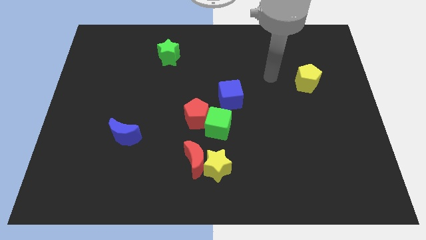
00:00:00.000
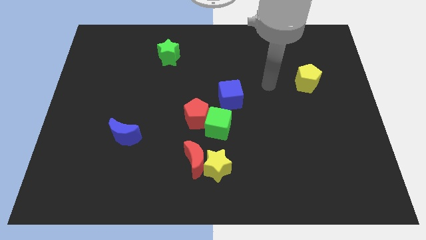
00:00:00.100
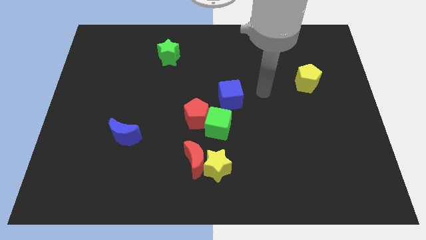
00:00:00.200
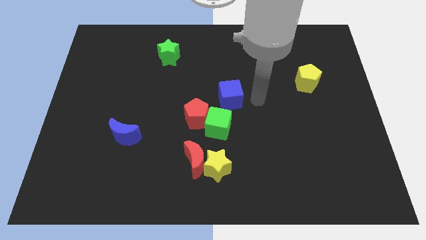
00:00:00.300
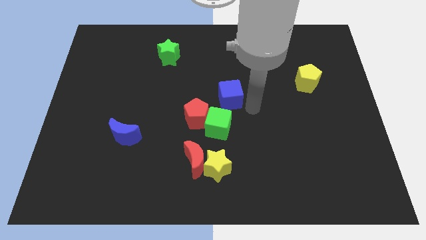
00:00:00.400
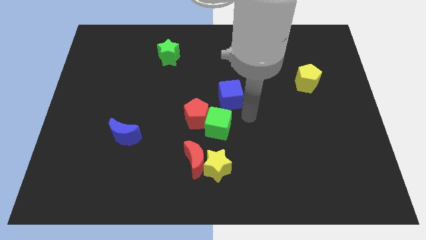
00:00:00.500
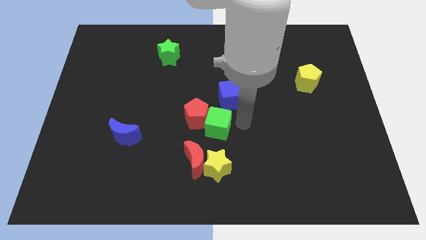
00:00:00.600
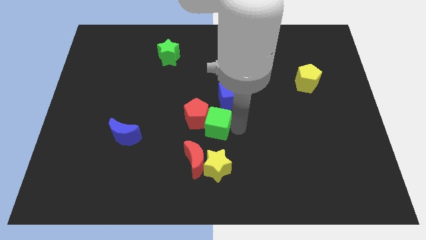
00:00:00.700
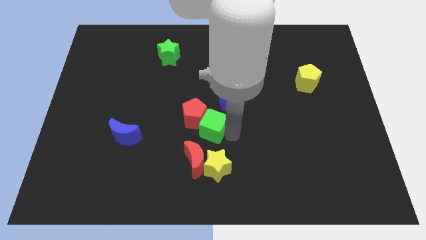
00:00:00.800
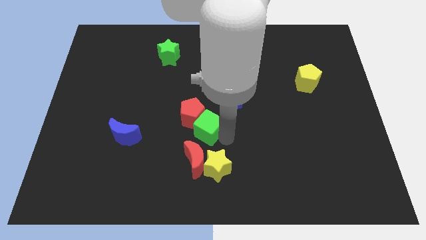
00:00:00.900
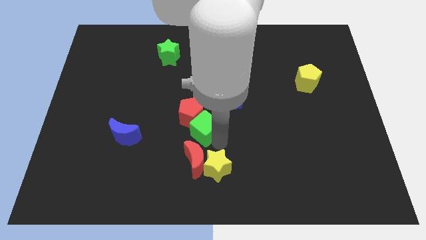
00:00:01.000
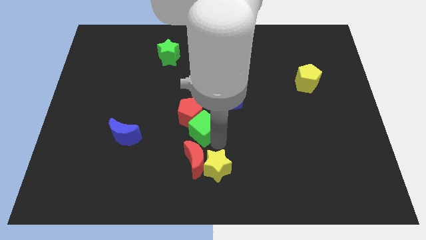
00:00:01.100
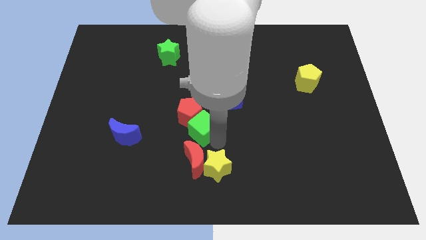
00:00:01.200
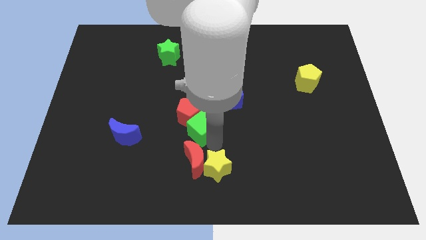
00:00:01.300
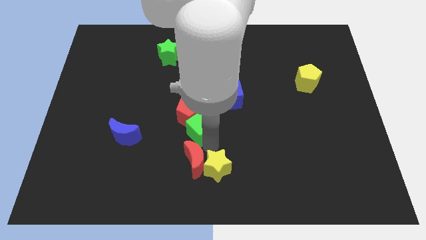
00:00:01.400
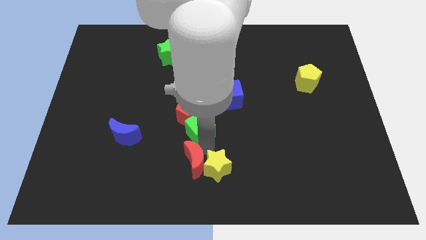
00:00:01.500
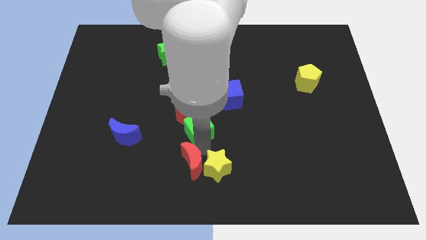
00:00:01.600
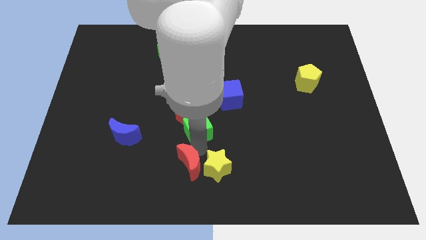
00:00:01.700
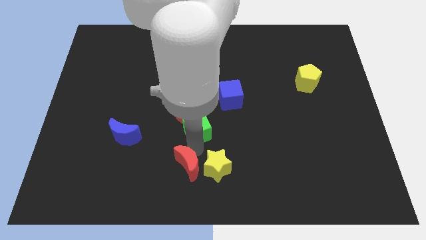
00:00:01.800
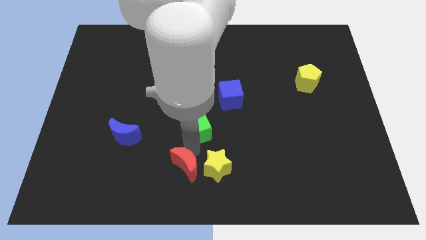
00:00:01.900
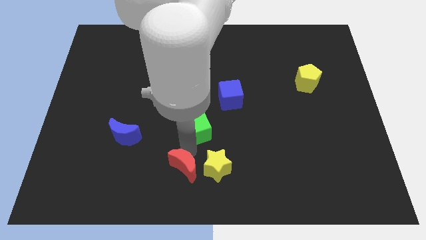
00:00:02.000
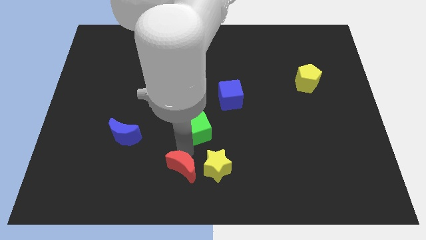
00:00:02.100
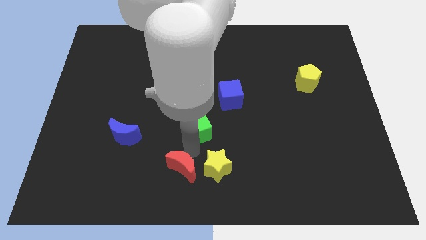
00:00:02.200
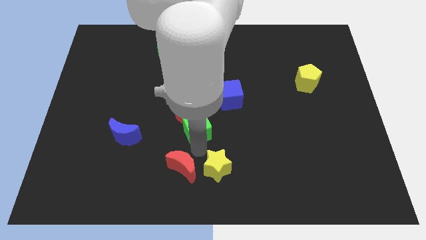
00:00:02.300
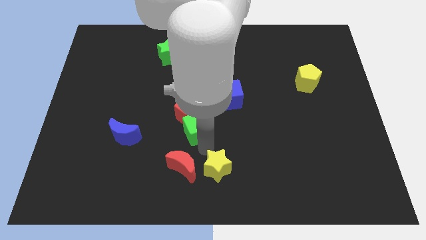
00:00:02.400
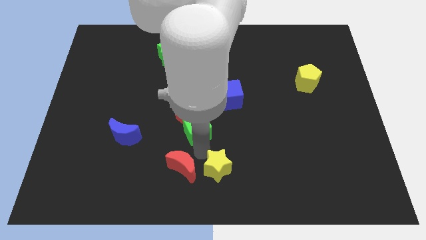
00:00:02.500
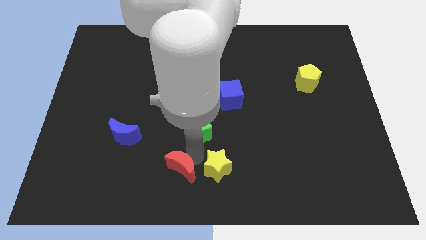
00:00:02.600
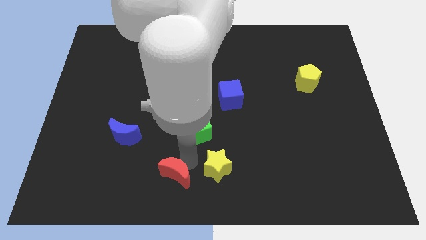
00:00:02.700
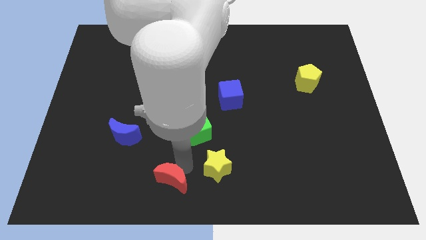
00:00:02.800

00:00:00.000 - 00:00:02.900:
pull the red moon apart from the yellow star and green cube

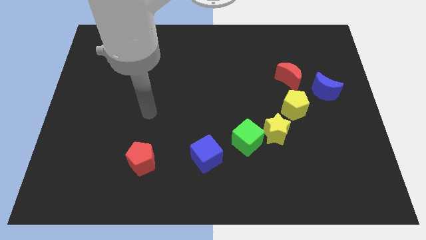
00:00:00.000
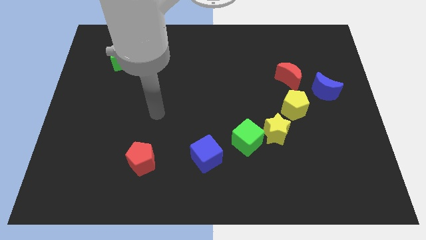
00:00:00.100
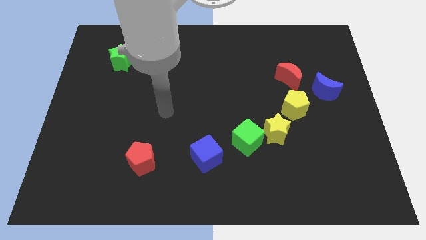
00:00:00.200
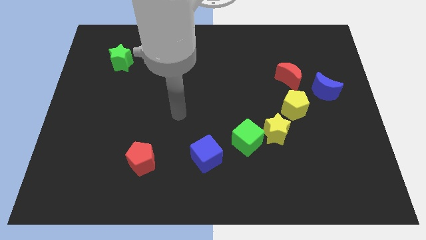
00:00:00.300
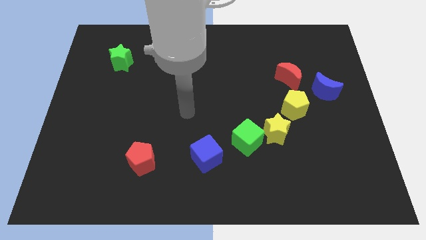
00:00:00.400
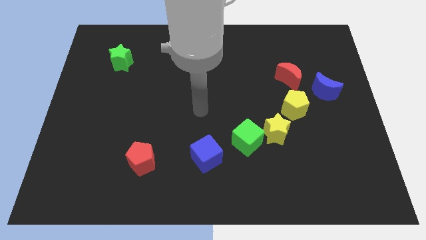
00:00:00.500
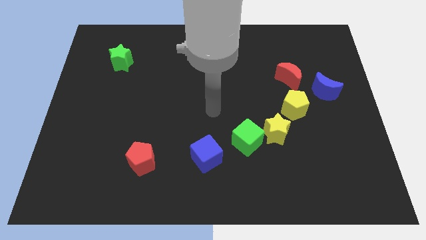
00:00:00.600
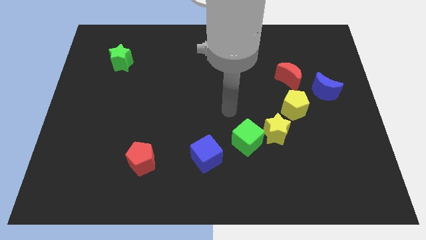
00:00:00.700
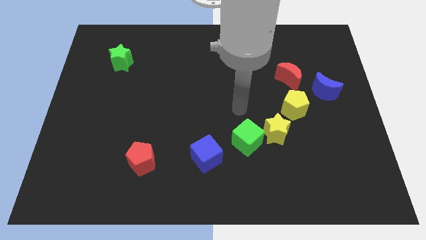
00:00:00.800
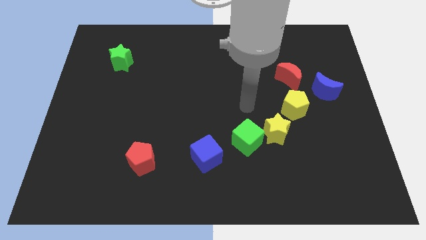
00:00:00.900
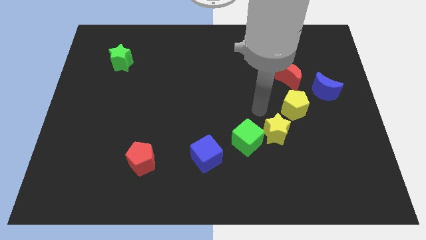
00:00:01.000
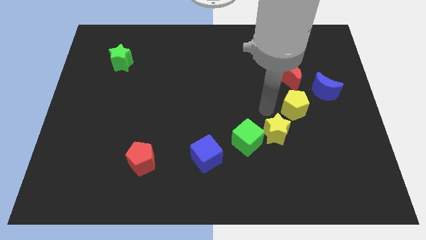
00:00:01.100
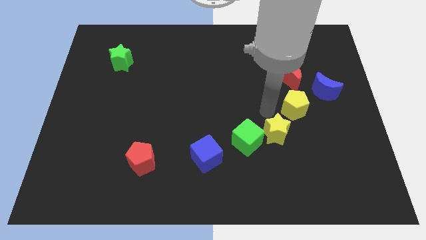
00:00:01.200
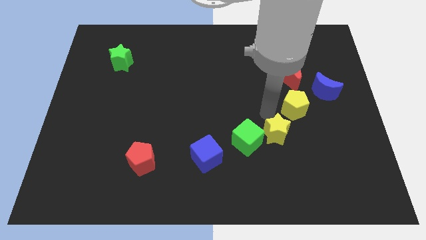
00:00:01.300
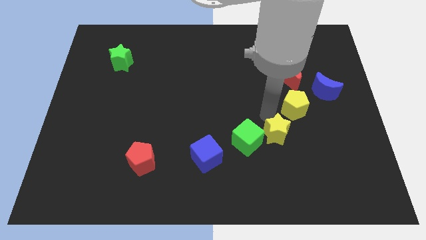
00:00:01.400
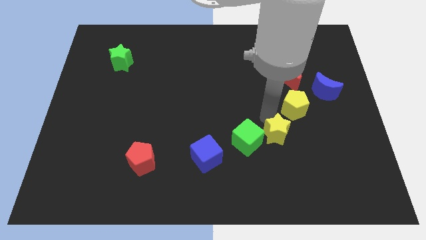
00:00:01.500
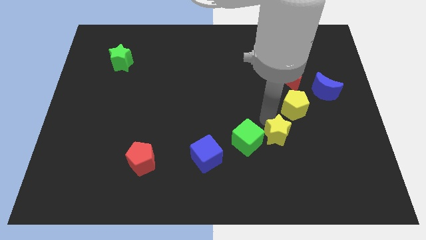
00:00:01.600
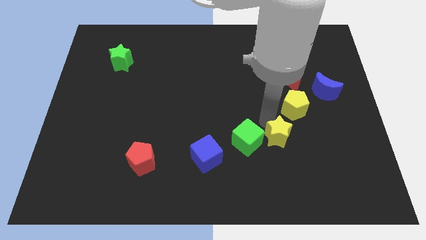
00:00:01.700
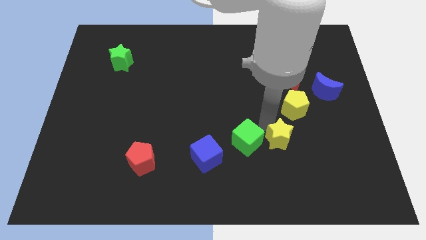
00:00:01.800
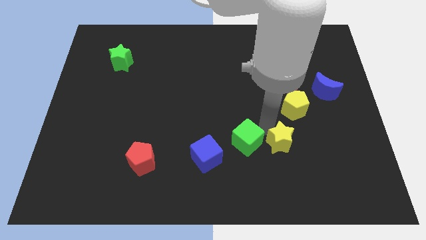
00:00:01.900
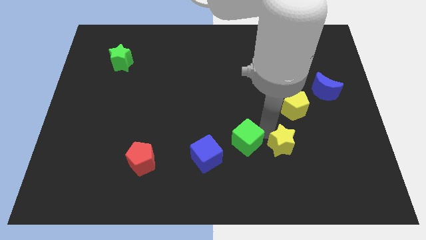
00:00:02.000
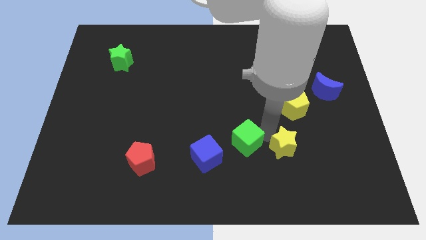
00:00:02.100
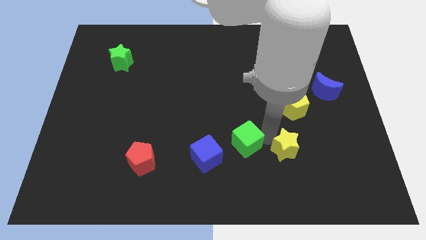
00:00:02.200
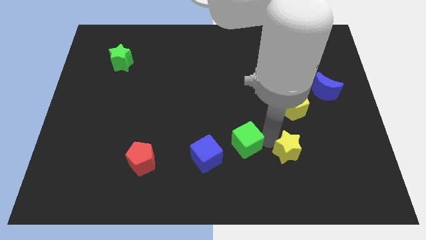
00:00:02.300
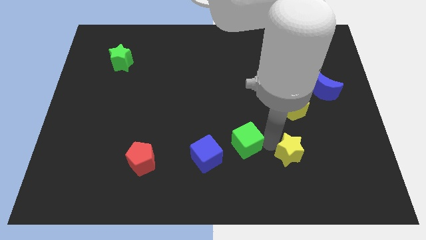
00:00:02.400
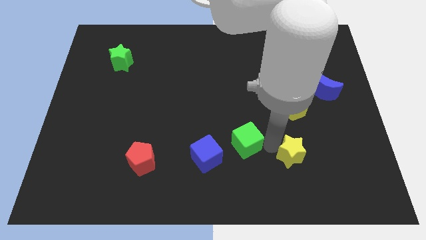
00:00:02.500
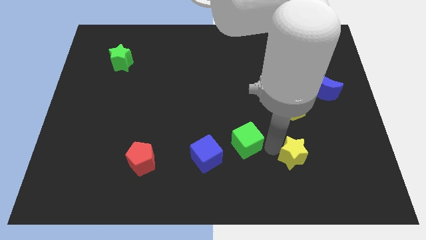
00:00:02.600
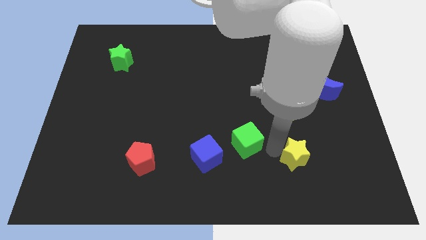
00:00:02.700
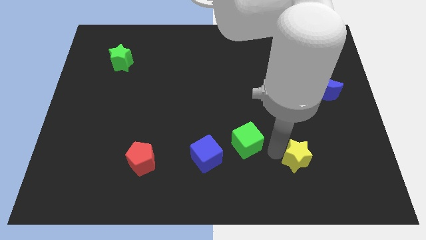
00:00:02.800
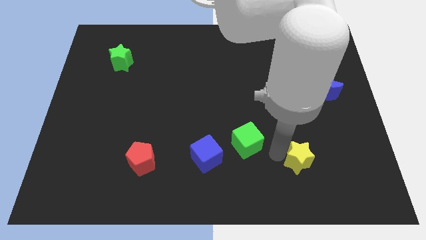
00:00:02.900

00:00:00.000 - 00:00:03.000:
pull the yellow star apart from the green cube and yellow pentagon

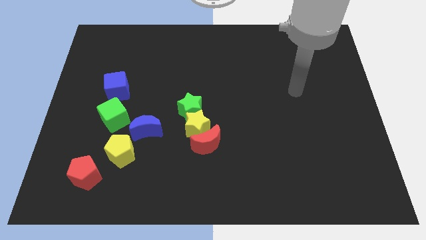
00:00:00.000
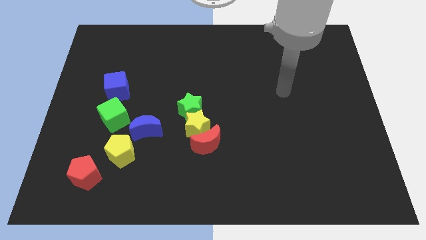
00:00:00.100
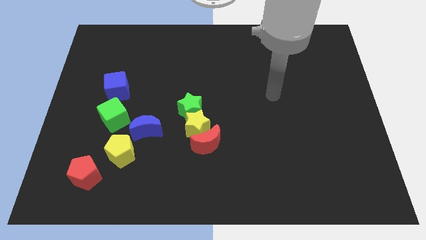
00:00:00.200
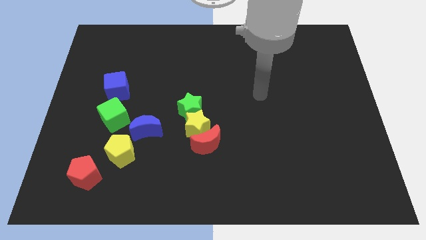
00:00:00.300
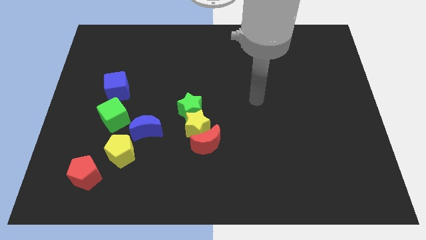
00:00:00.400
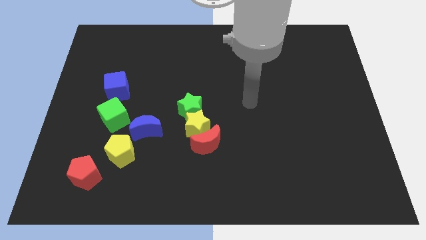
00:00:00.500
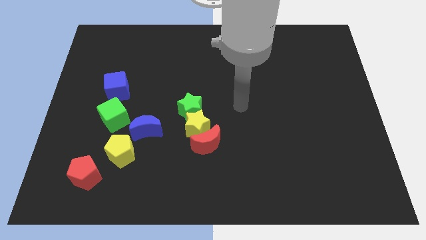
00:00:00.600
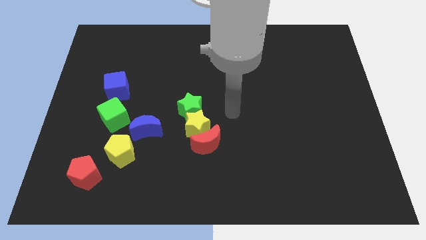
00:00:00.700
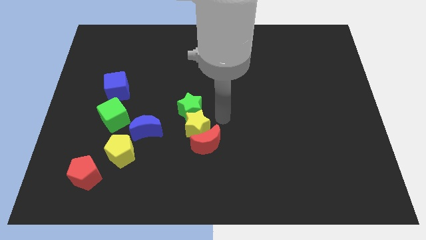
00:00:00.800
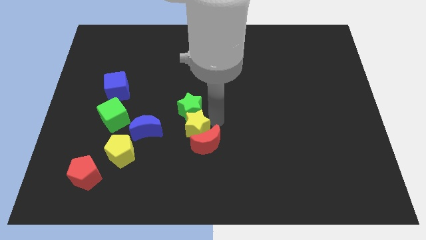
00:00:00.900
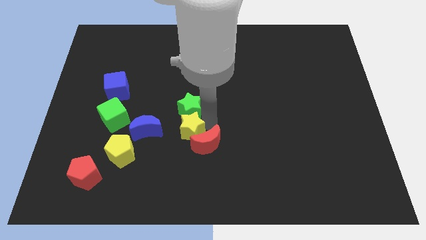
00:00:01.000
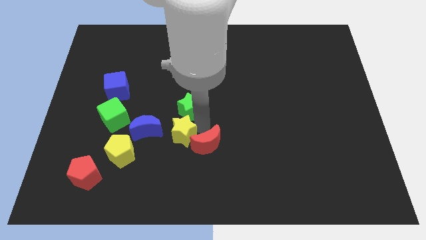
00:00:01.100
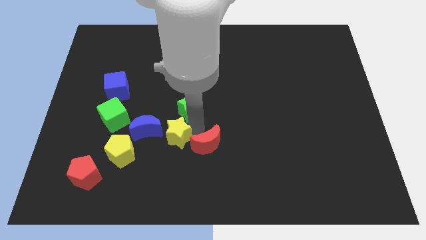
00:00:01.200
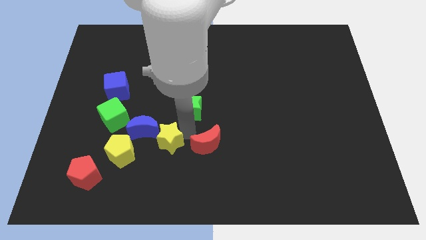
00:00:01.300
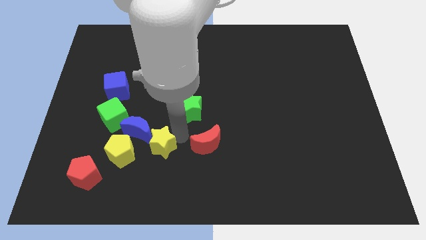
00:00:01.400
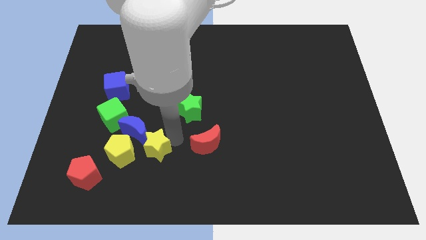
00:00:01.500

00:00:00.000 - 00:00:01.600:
separate the yellow star from the red moon and green star

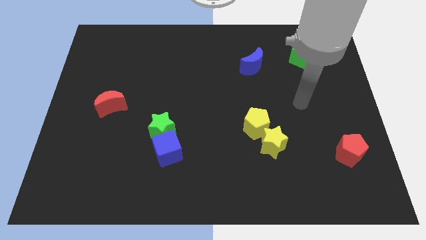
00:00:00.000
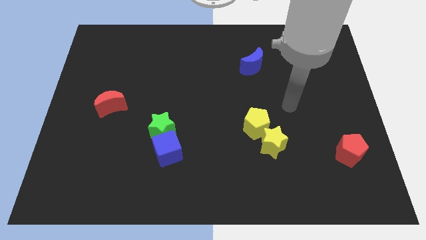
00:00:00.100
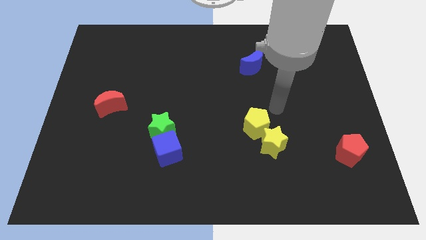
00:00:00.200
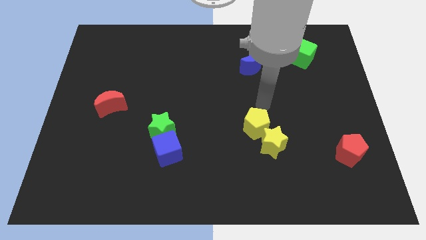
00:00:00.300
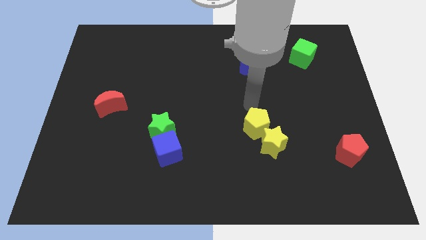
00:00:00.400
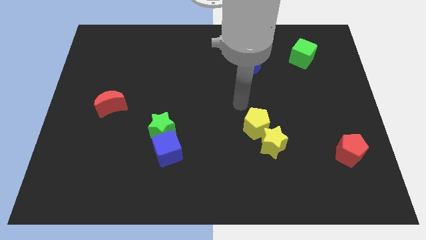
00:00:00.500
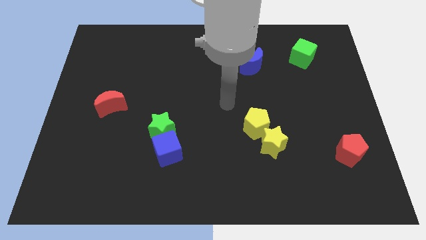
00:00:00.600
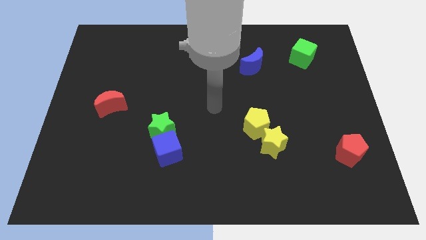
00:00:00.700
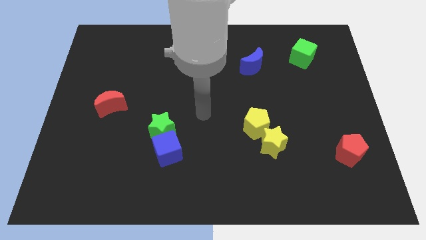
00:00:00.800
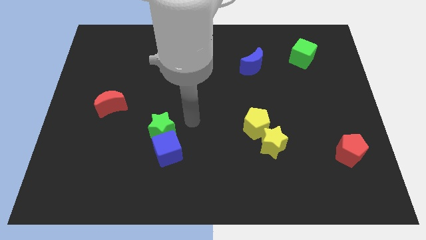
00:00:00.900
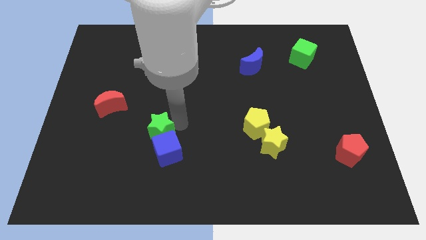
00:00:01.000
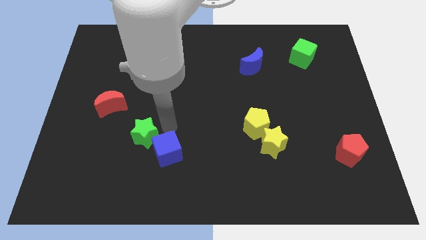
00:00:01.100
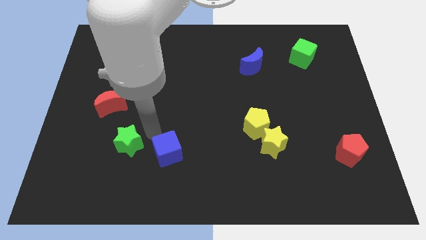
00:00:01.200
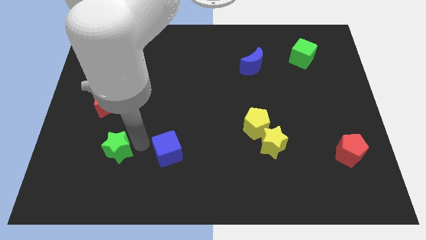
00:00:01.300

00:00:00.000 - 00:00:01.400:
pull the blue cube apart from the green star

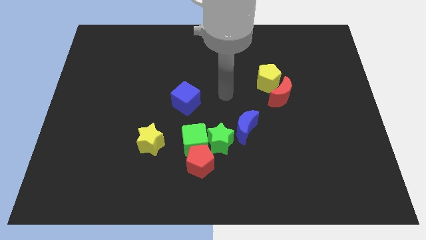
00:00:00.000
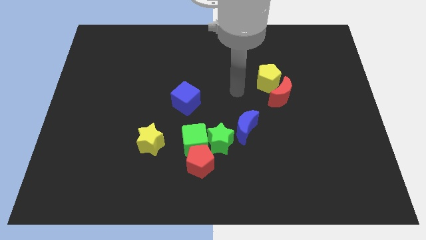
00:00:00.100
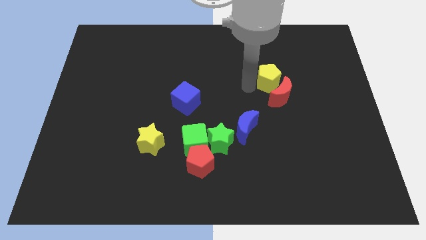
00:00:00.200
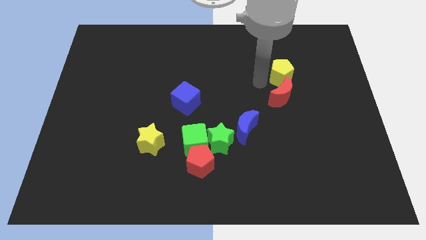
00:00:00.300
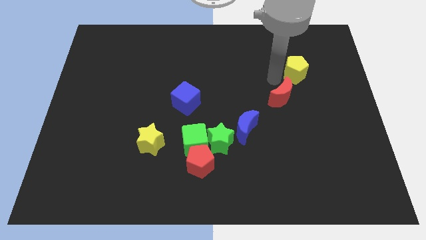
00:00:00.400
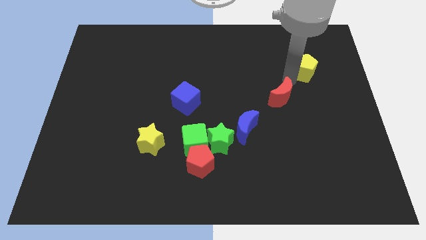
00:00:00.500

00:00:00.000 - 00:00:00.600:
move the red moon away from the yellow pentagon

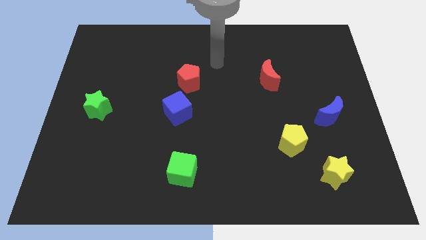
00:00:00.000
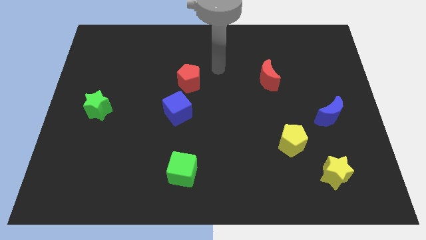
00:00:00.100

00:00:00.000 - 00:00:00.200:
separate the red pentagon from the blue cube
